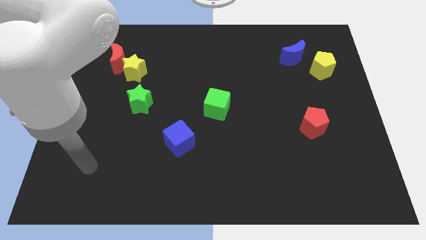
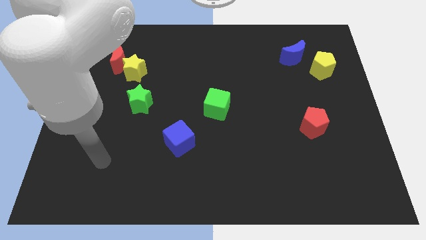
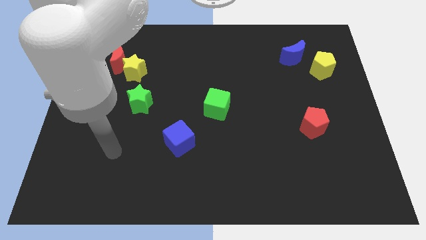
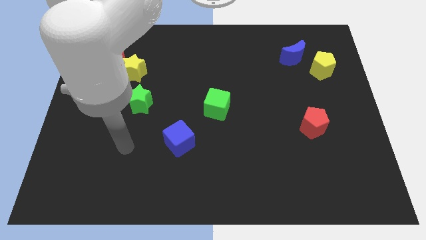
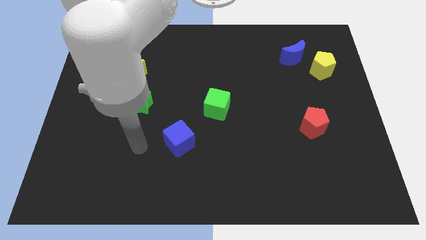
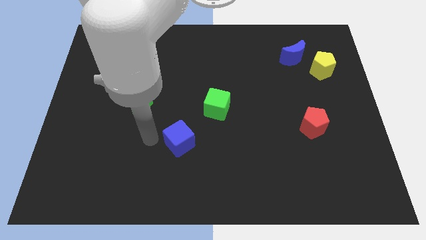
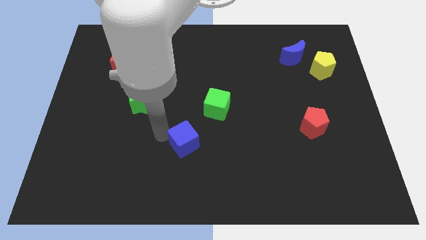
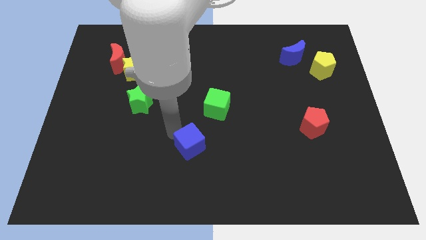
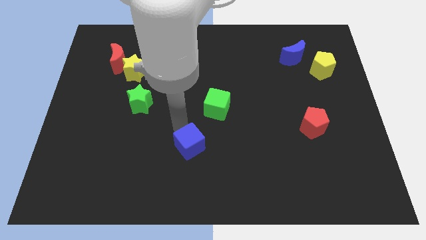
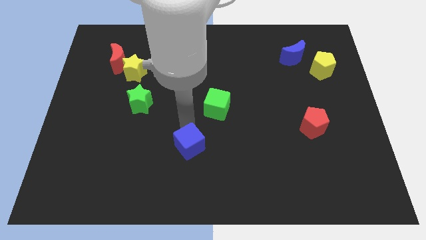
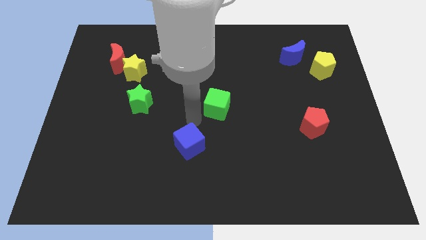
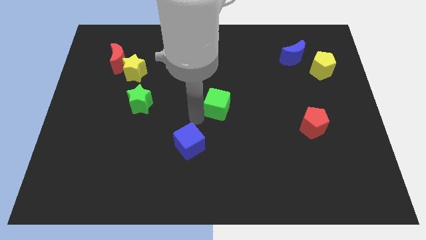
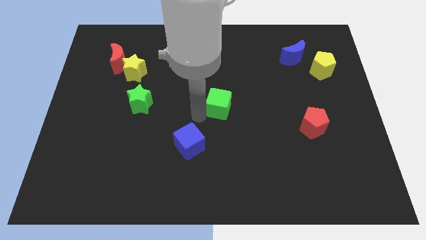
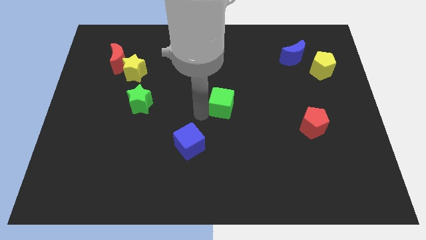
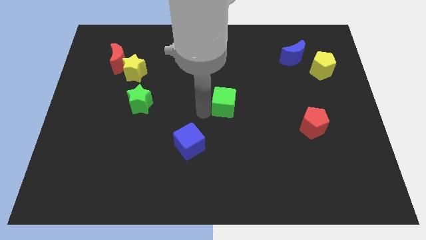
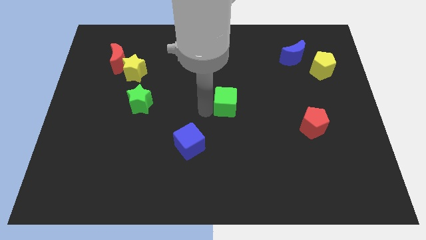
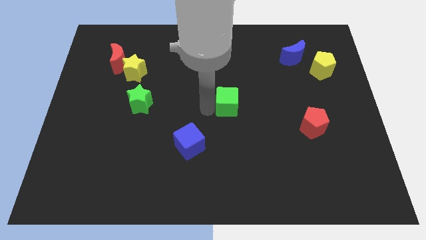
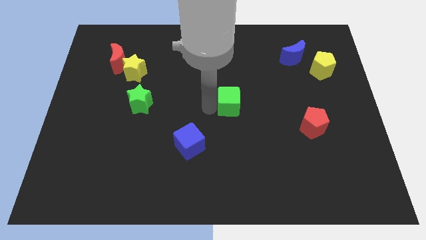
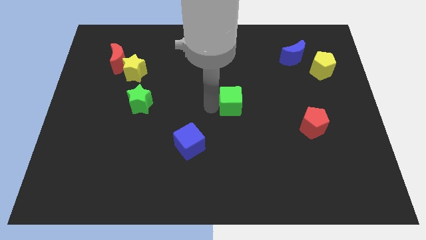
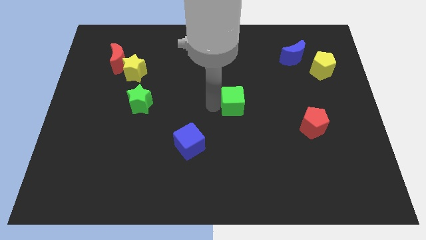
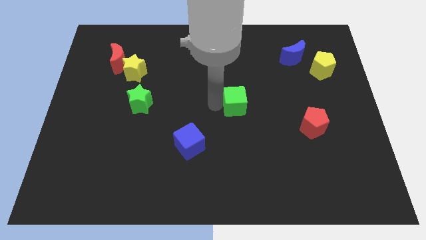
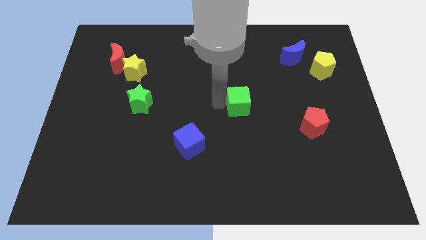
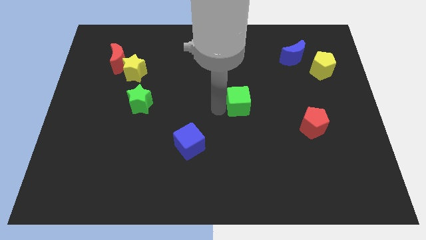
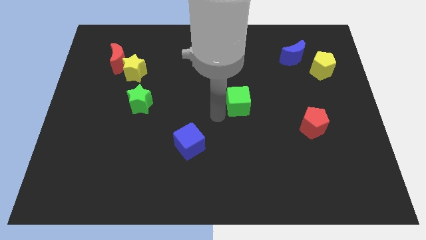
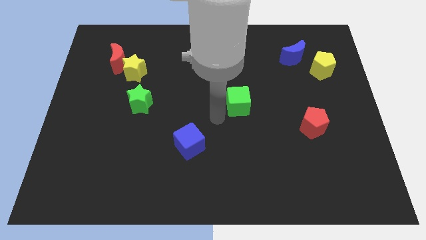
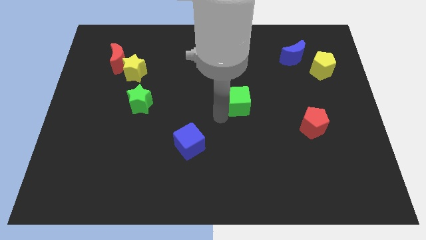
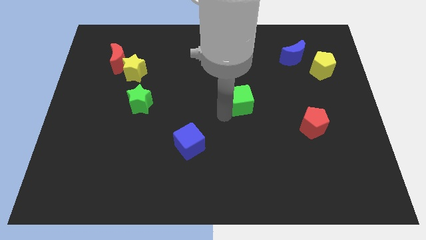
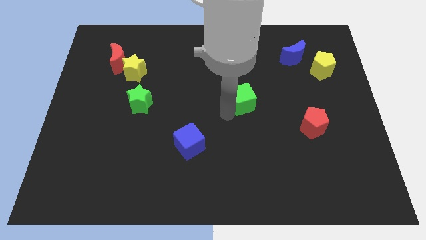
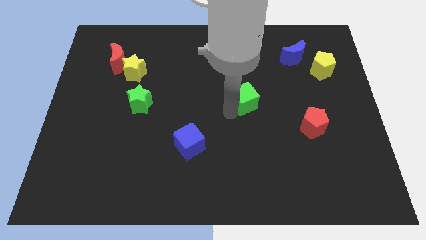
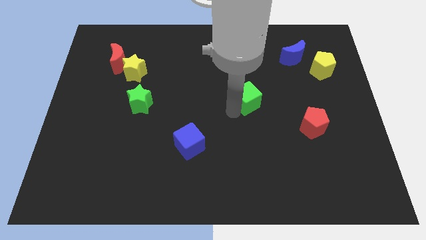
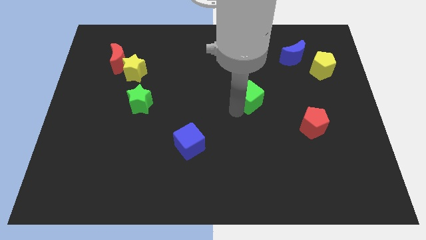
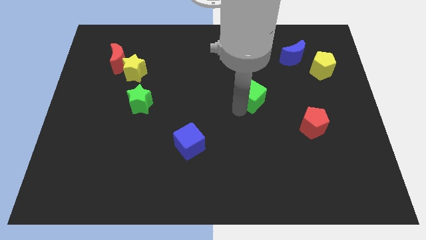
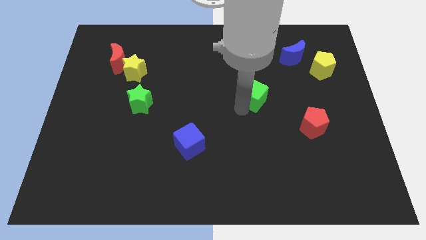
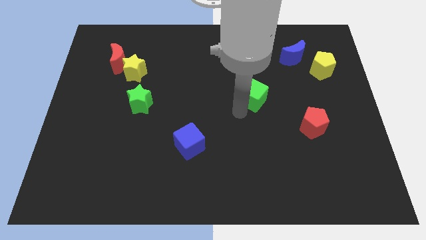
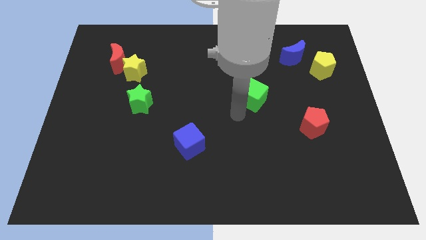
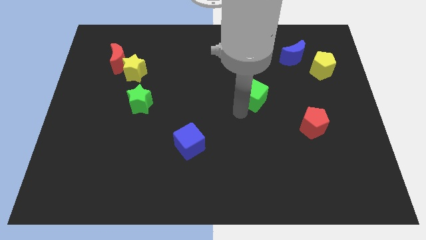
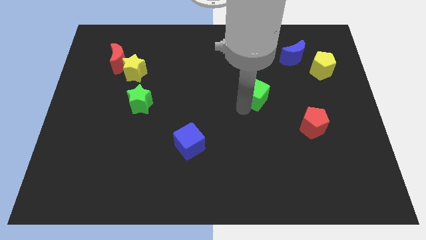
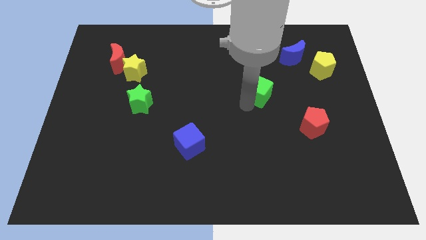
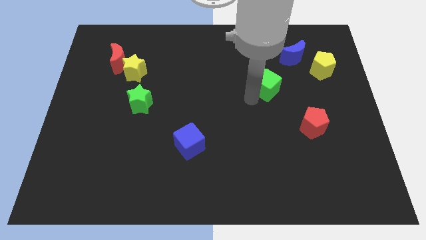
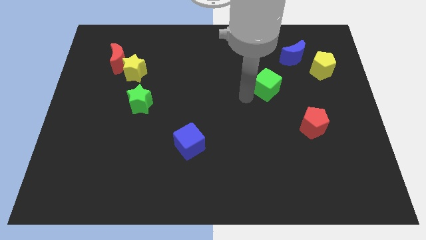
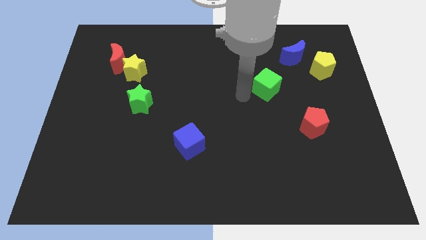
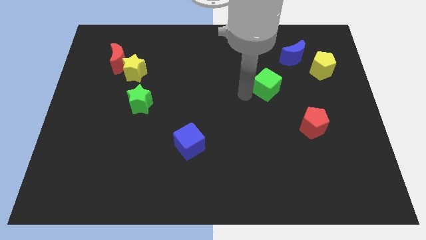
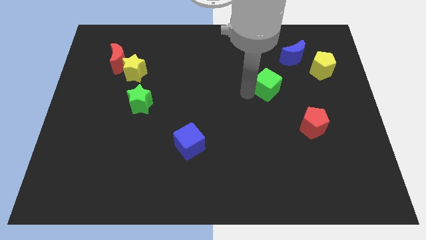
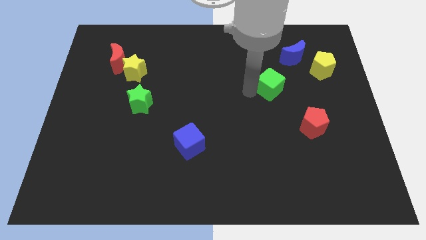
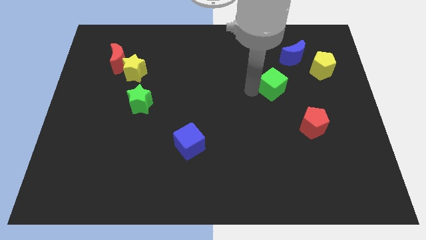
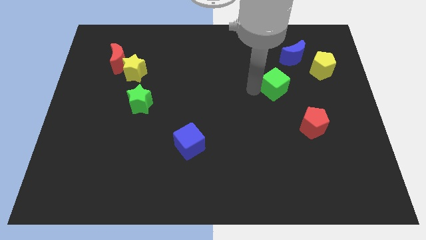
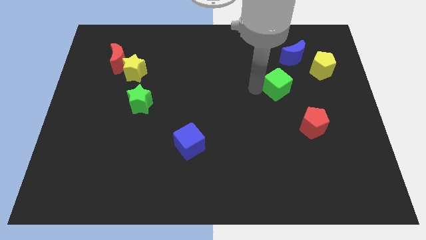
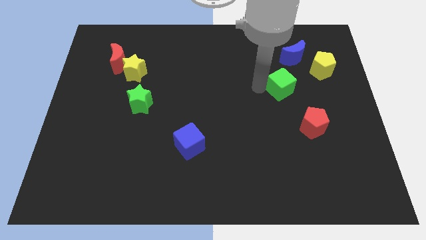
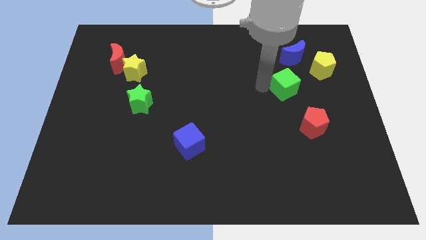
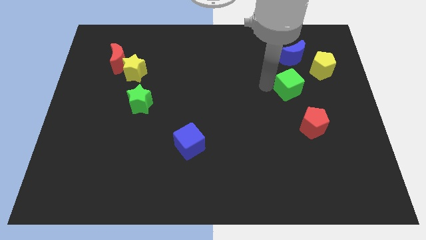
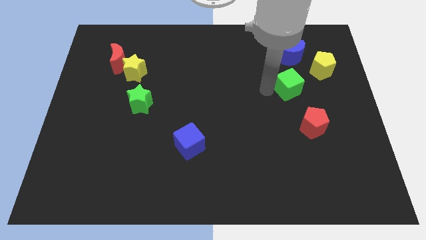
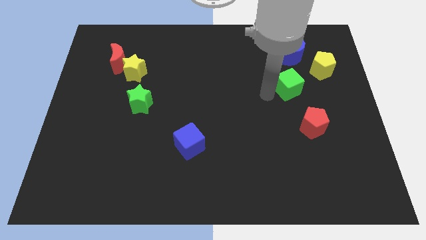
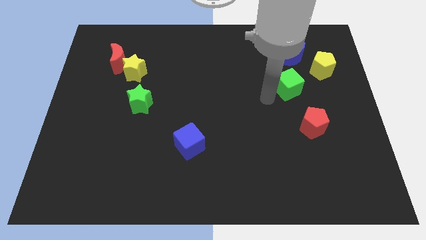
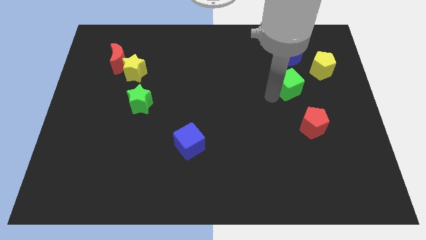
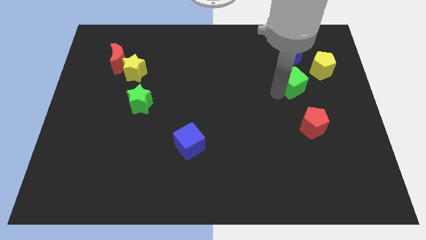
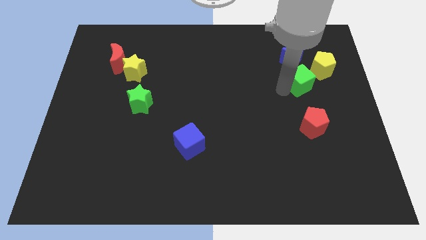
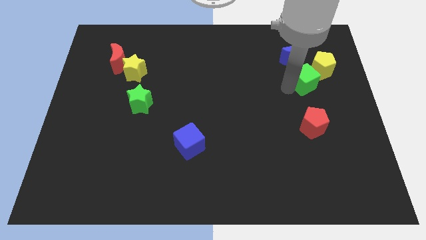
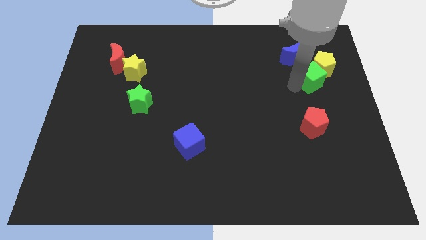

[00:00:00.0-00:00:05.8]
put the green cube towards the yellow pentagon

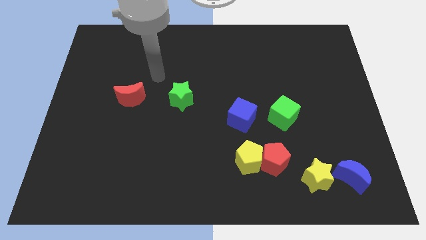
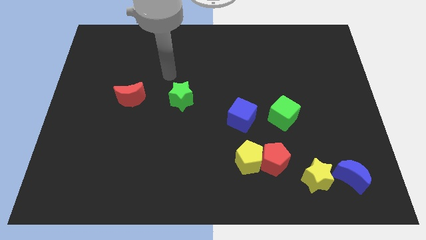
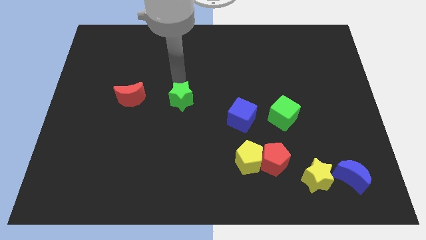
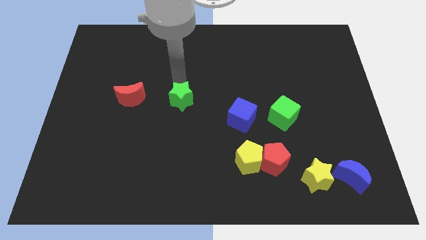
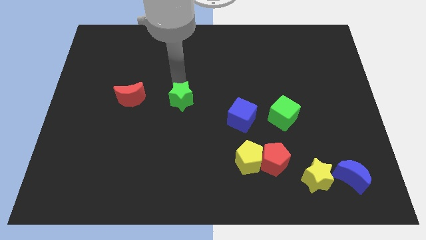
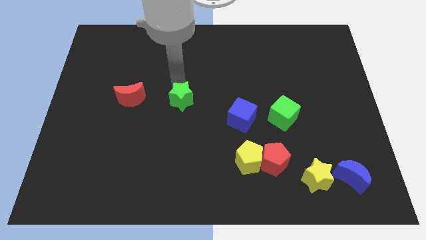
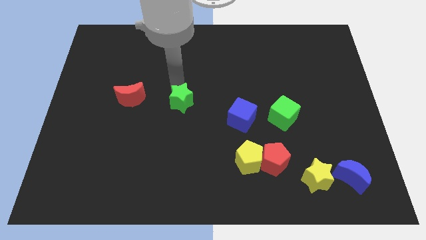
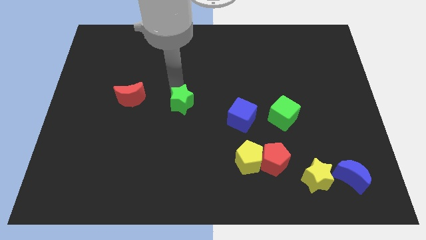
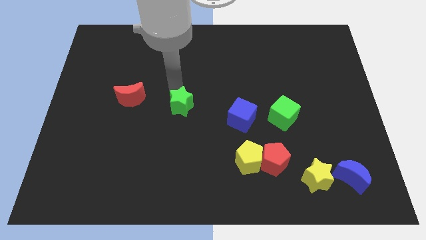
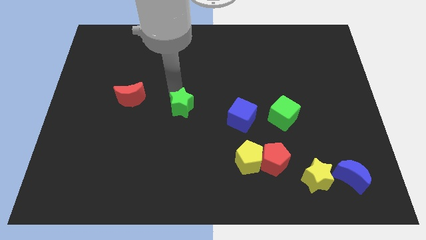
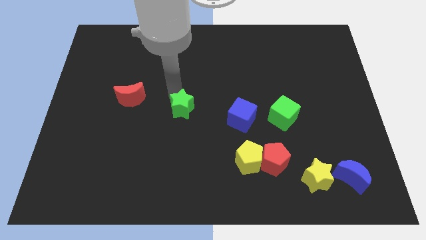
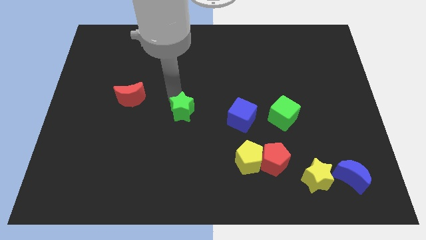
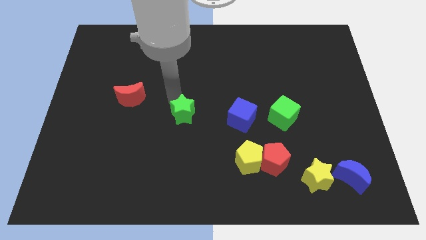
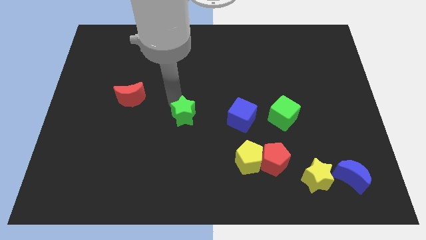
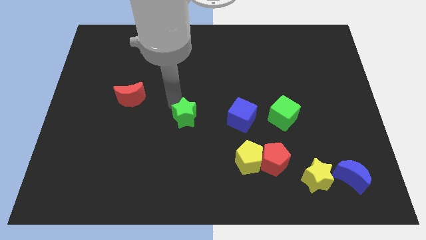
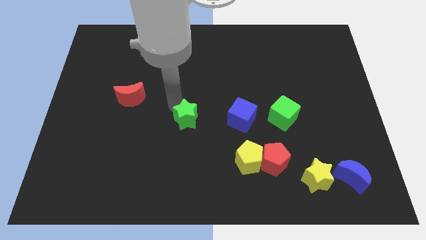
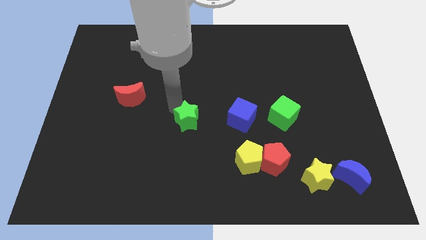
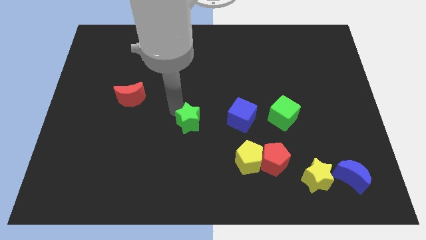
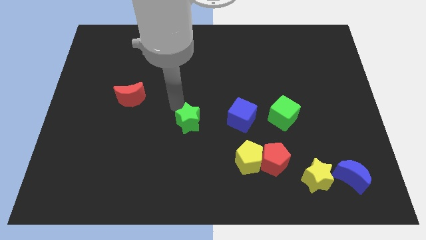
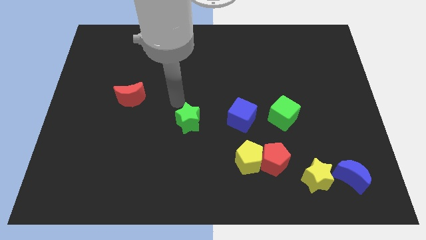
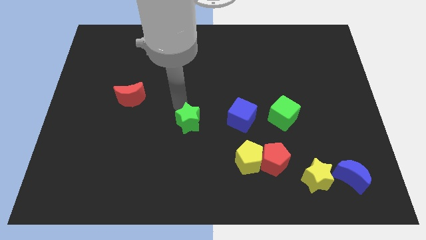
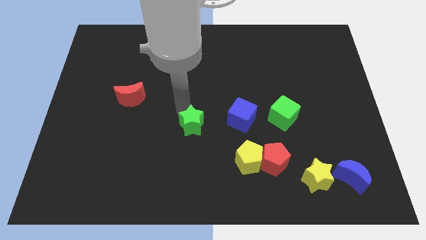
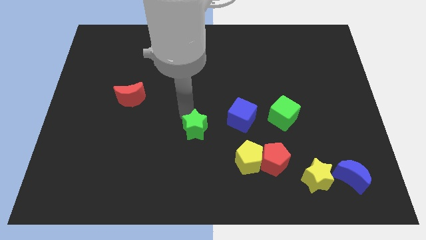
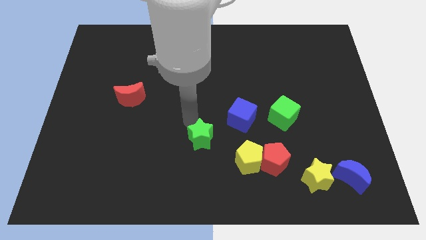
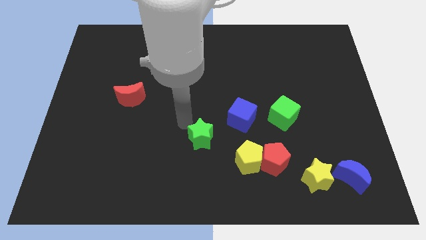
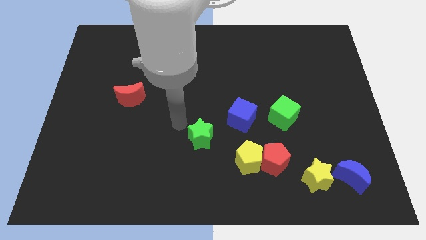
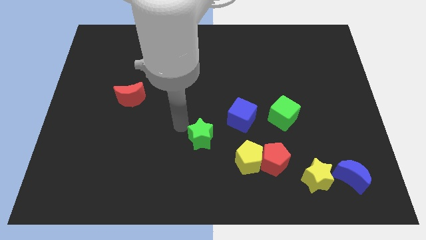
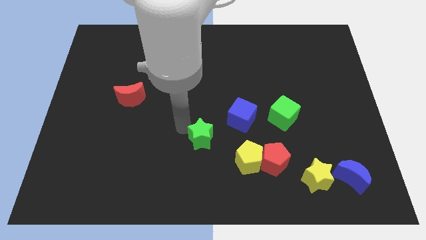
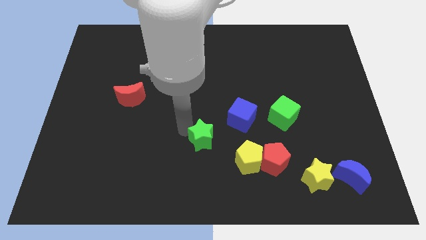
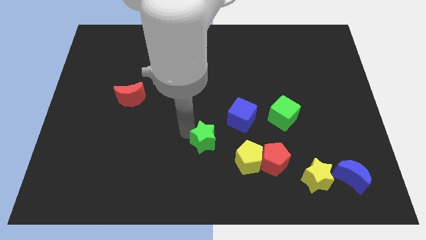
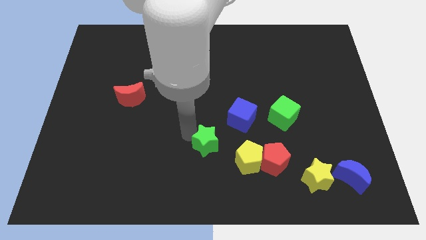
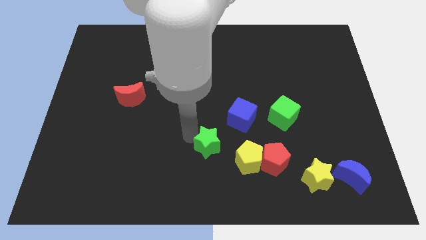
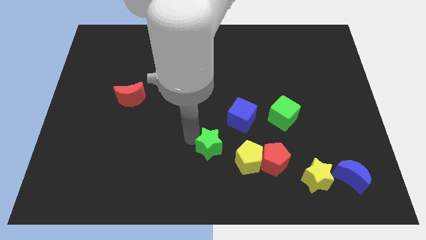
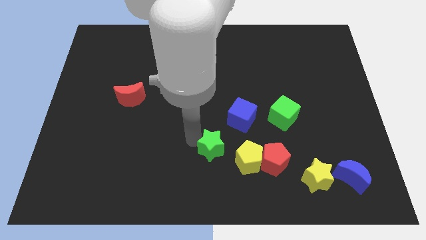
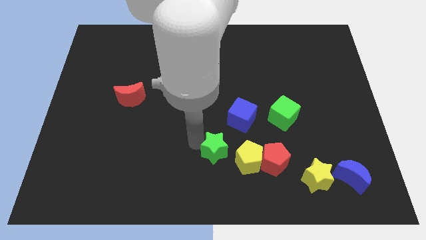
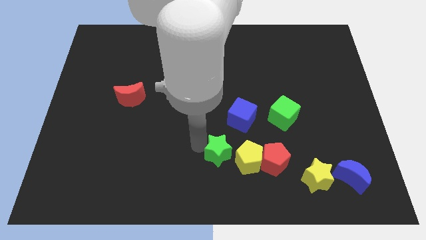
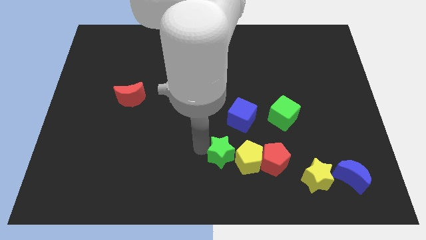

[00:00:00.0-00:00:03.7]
move the green star close to the yellow pentagon
